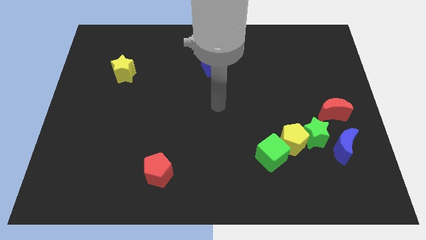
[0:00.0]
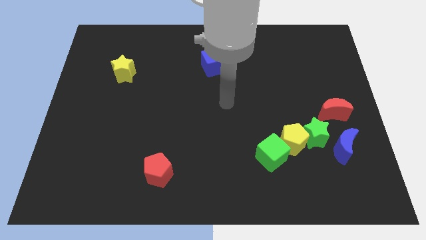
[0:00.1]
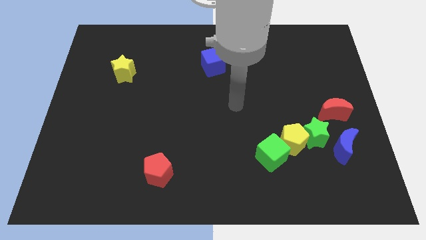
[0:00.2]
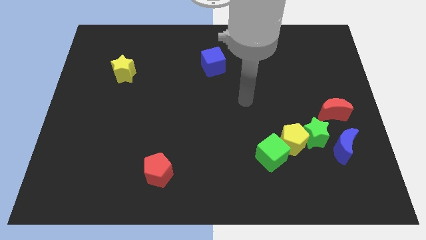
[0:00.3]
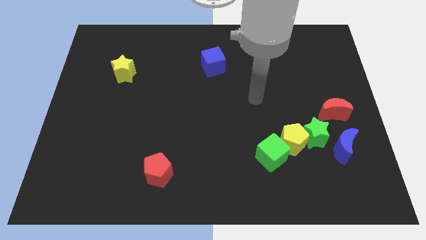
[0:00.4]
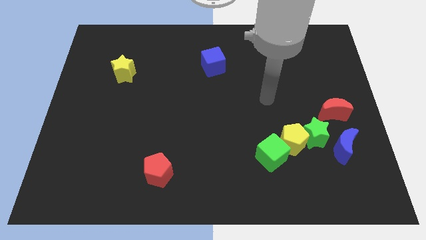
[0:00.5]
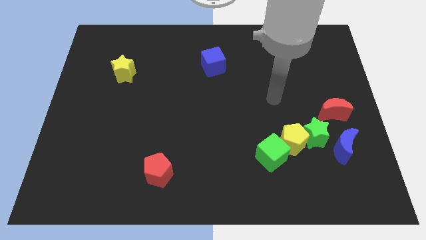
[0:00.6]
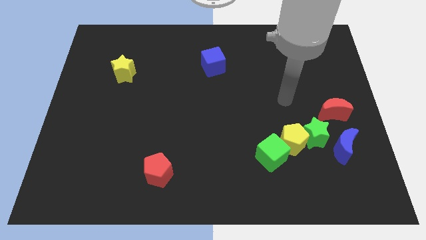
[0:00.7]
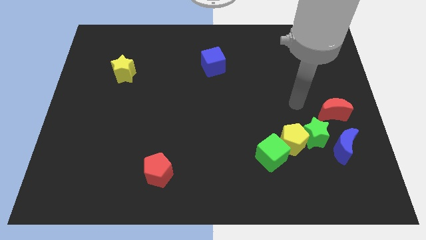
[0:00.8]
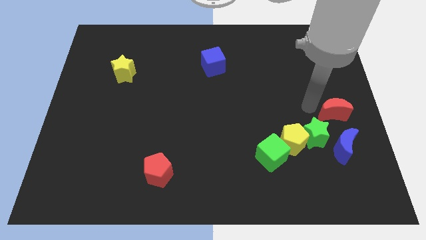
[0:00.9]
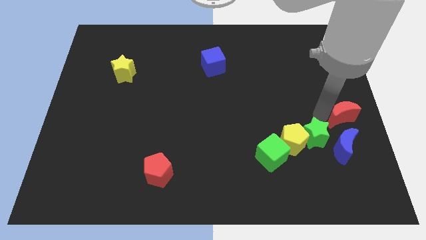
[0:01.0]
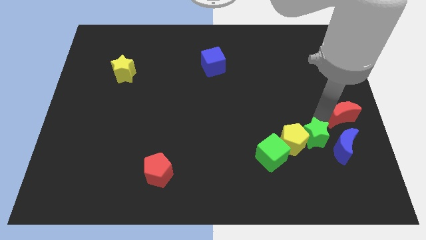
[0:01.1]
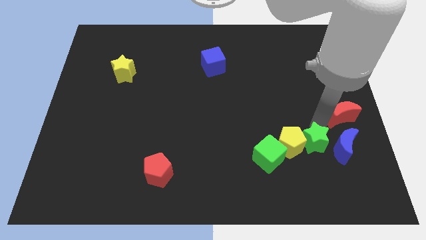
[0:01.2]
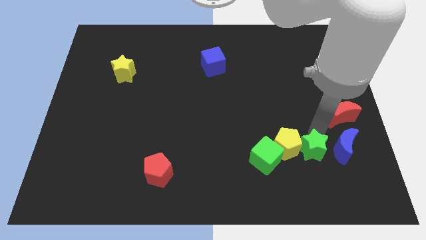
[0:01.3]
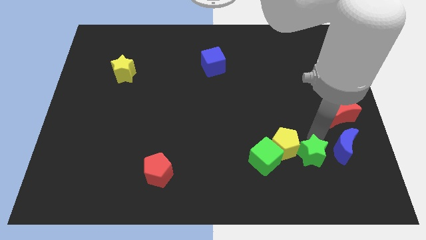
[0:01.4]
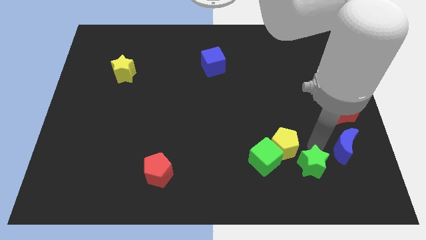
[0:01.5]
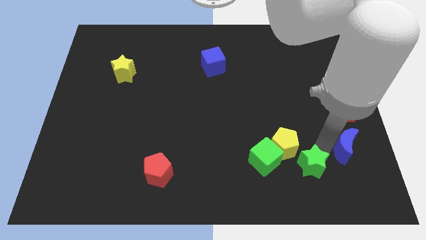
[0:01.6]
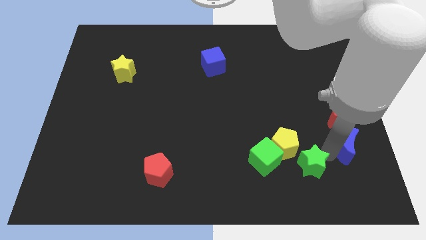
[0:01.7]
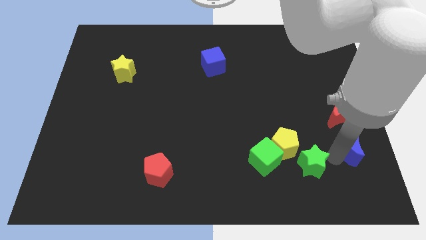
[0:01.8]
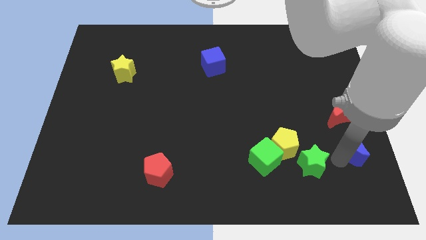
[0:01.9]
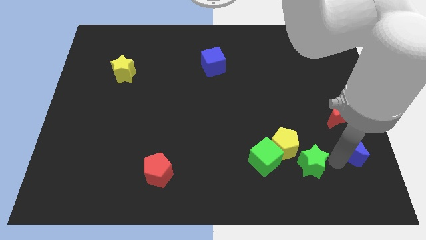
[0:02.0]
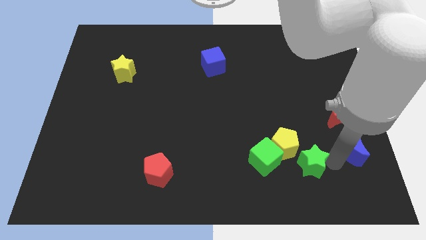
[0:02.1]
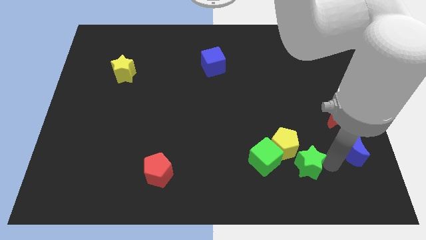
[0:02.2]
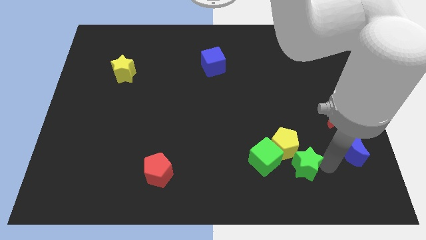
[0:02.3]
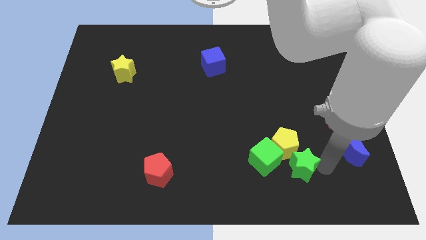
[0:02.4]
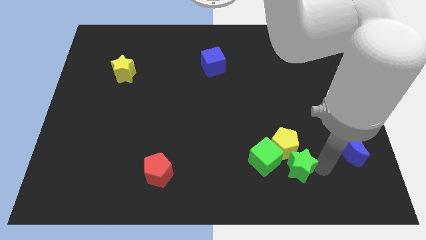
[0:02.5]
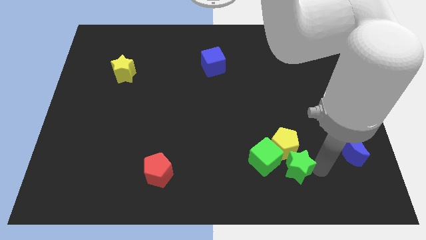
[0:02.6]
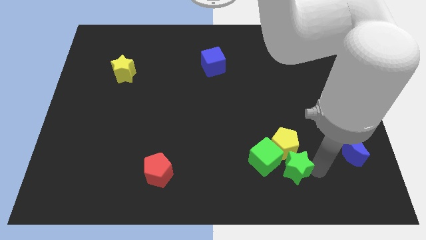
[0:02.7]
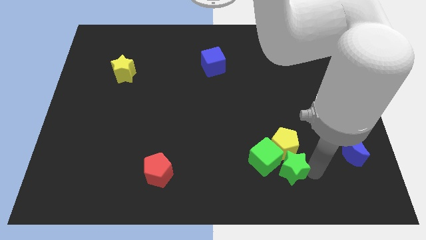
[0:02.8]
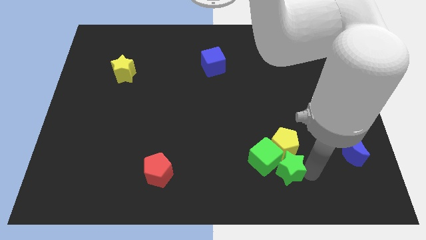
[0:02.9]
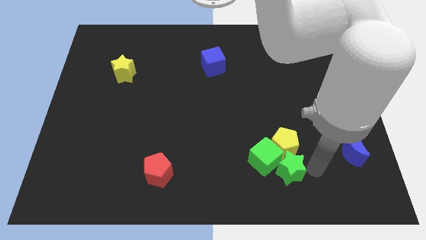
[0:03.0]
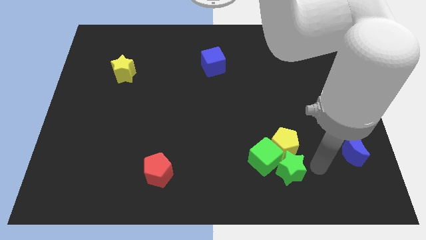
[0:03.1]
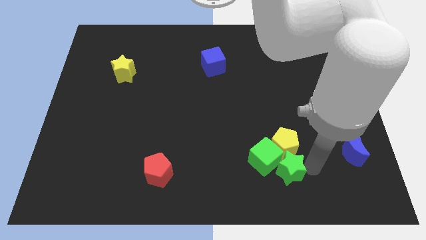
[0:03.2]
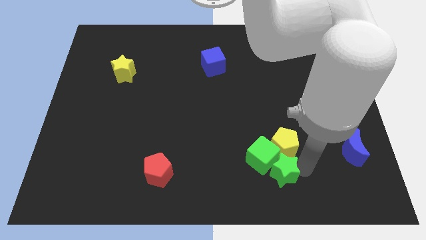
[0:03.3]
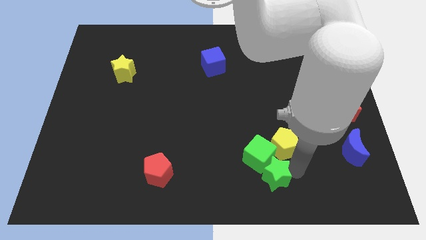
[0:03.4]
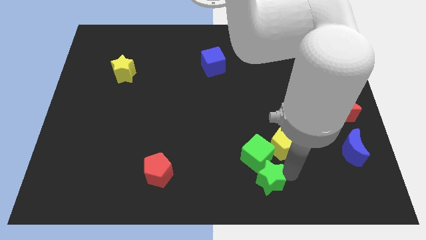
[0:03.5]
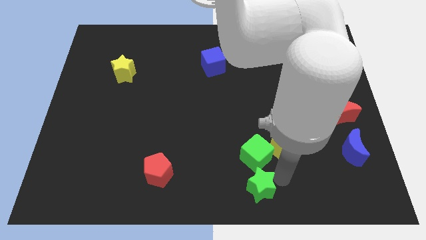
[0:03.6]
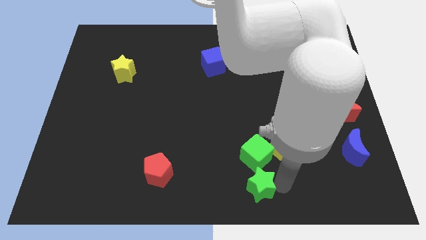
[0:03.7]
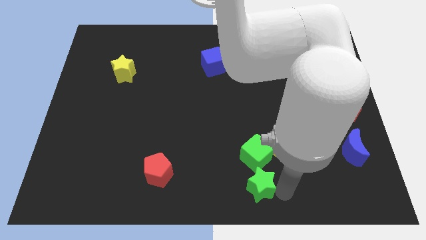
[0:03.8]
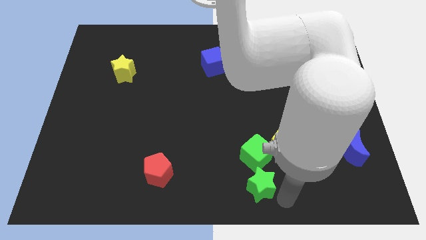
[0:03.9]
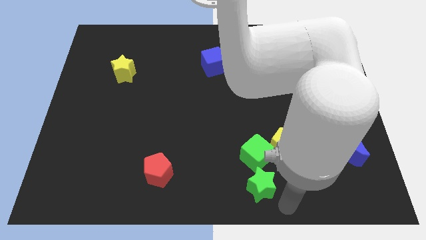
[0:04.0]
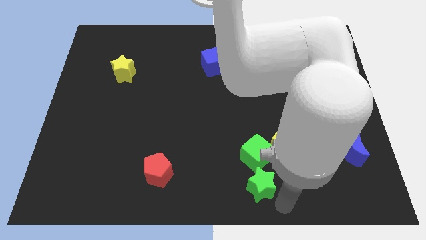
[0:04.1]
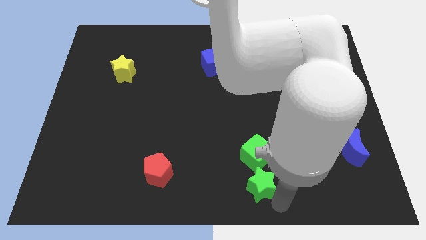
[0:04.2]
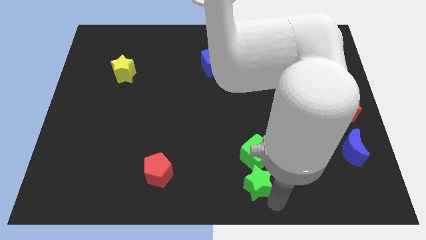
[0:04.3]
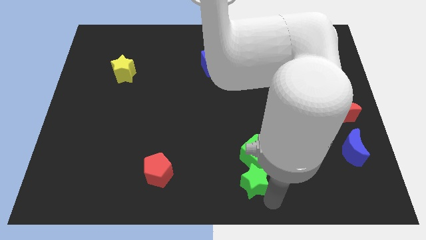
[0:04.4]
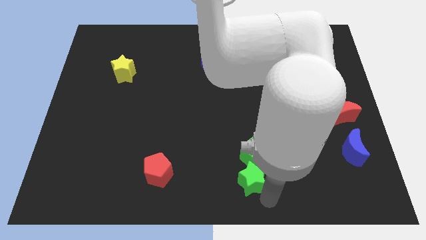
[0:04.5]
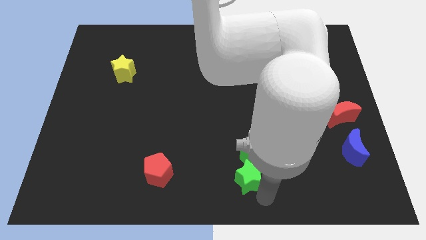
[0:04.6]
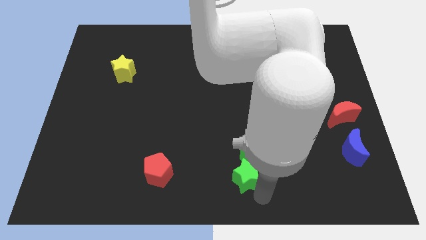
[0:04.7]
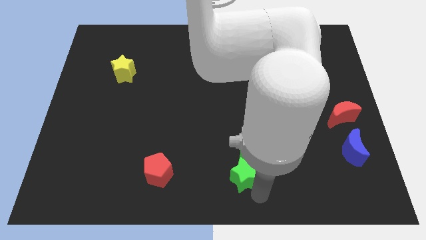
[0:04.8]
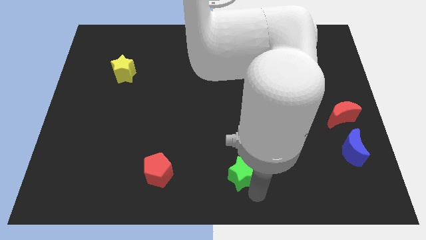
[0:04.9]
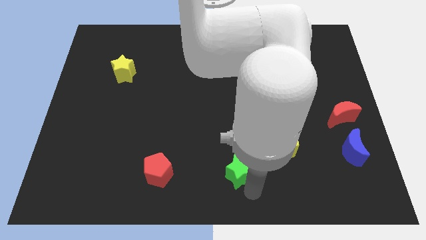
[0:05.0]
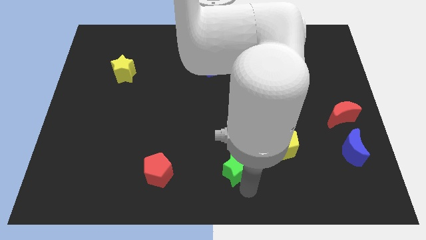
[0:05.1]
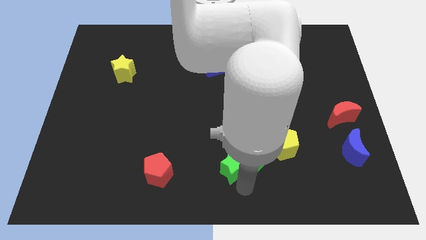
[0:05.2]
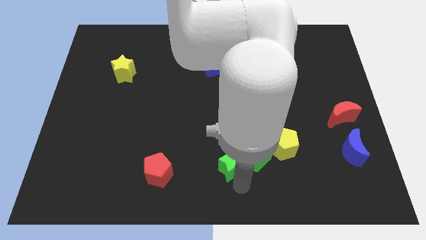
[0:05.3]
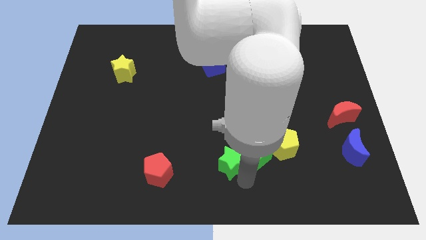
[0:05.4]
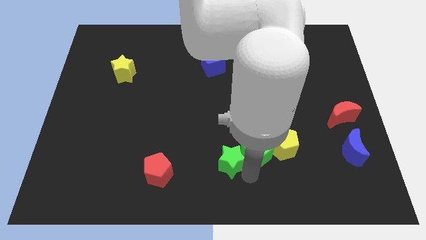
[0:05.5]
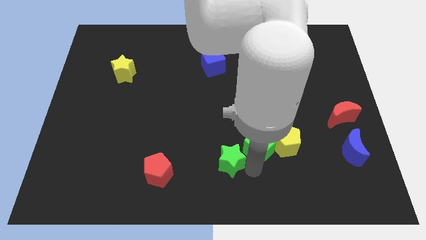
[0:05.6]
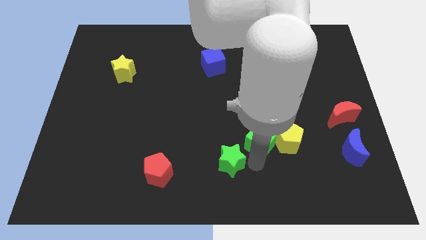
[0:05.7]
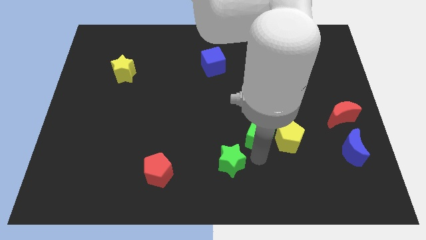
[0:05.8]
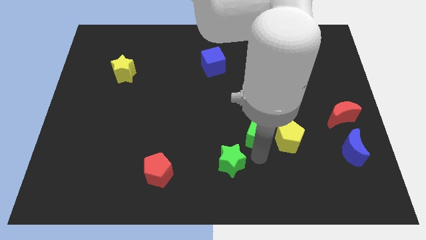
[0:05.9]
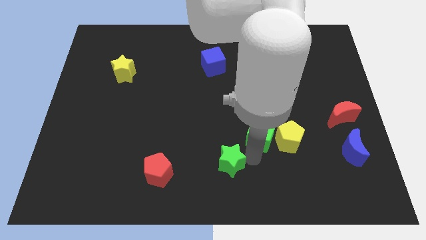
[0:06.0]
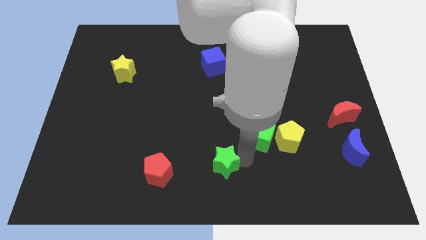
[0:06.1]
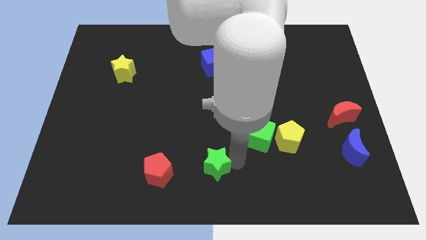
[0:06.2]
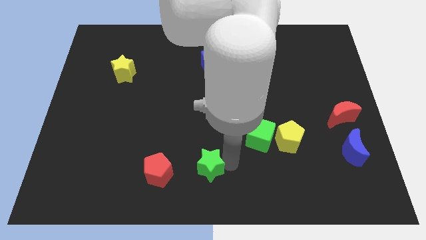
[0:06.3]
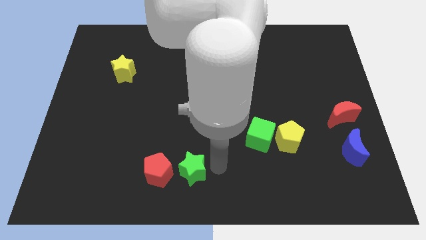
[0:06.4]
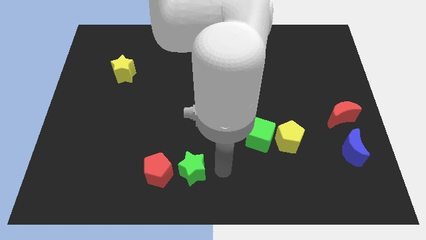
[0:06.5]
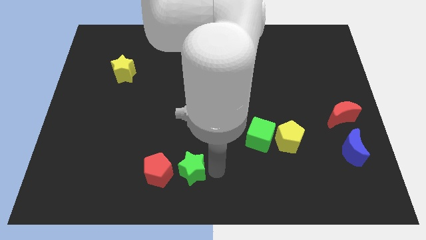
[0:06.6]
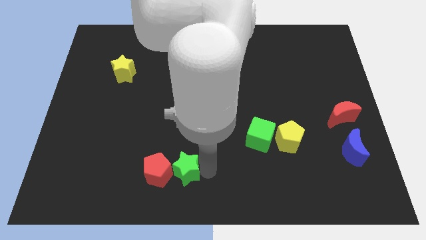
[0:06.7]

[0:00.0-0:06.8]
slide the green star next to the red pentagon

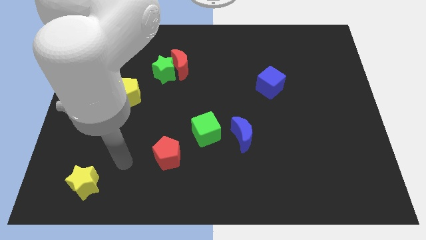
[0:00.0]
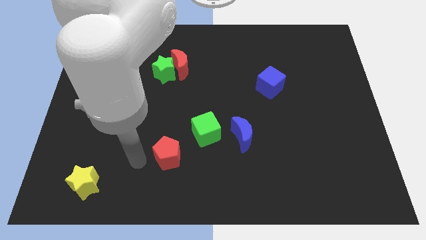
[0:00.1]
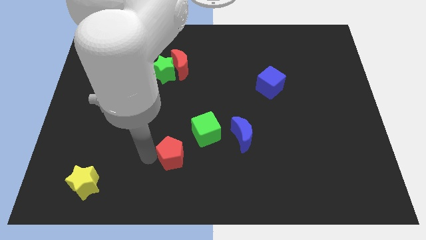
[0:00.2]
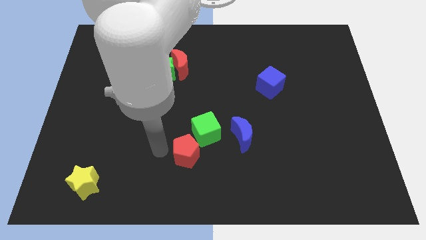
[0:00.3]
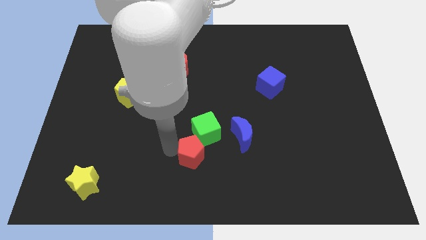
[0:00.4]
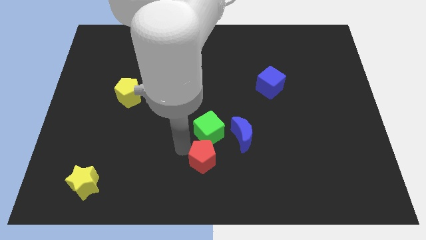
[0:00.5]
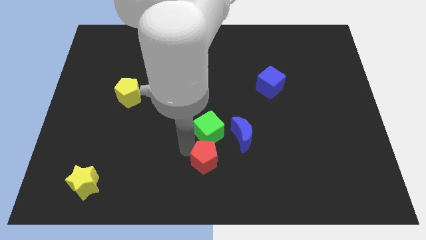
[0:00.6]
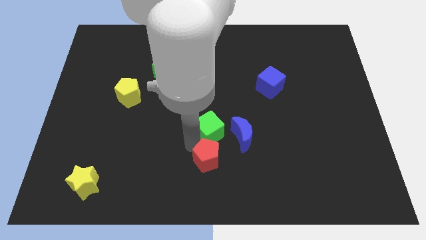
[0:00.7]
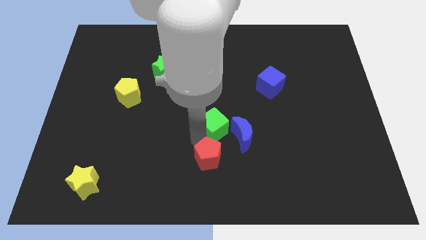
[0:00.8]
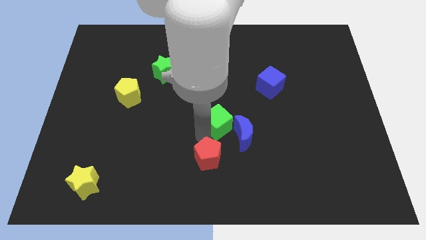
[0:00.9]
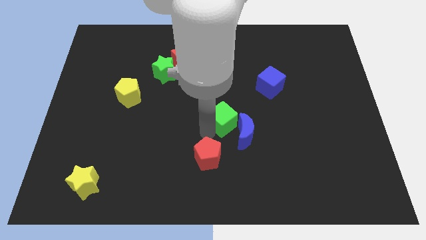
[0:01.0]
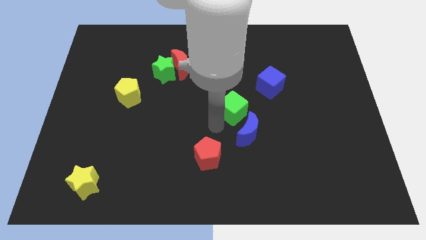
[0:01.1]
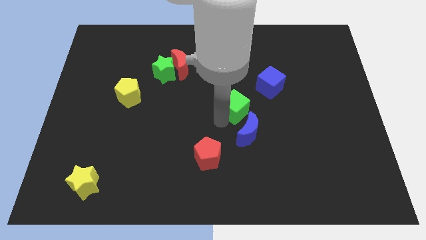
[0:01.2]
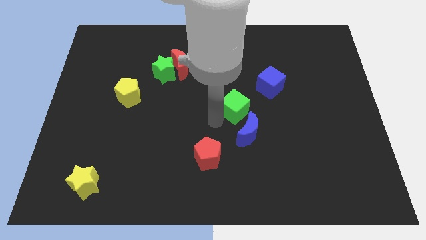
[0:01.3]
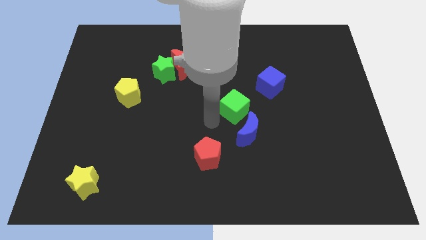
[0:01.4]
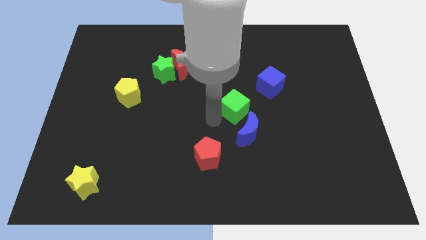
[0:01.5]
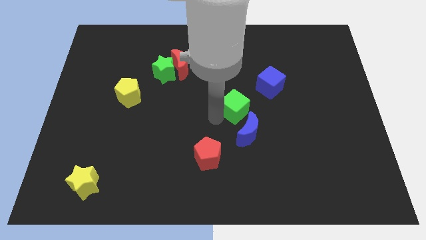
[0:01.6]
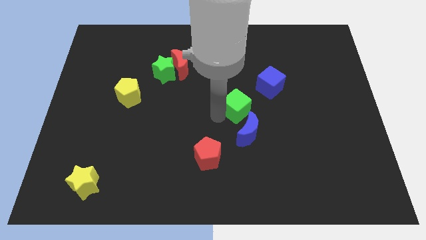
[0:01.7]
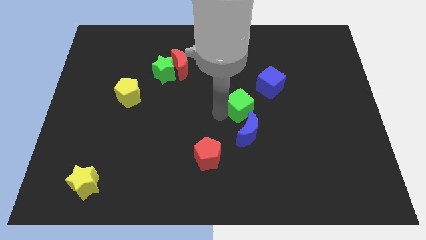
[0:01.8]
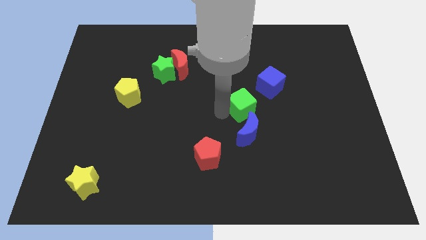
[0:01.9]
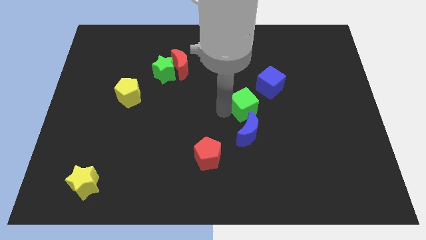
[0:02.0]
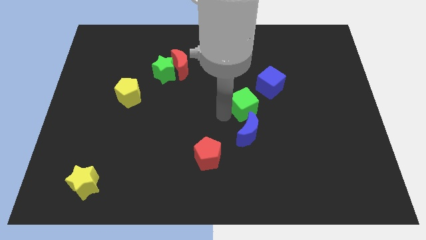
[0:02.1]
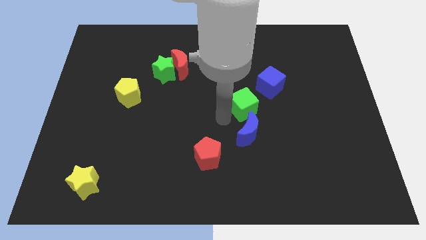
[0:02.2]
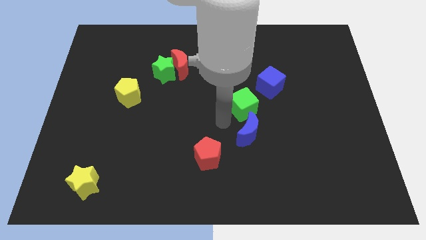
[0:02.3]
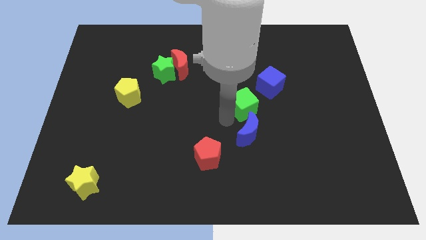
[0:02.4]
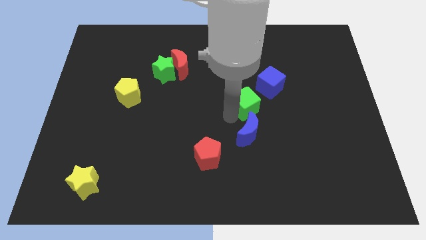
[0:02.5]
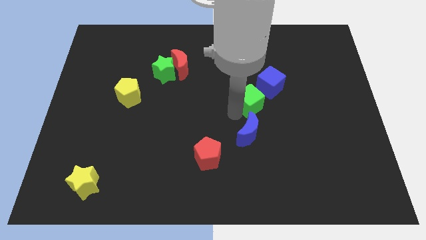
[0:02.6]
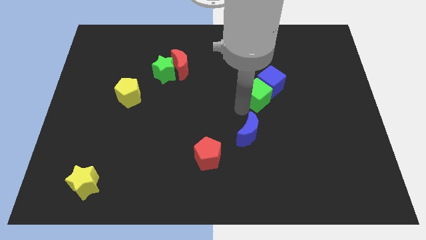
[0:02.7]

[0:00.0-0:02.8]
push the green cube towards the blue cube
